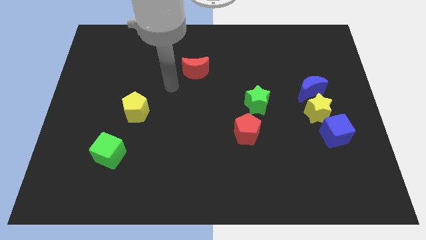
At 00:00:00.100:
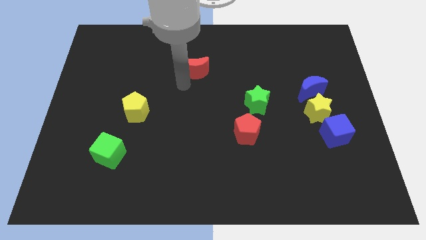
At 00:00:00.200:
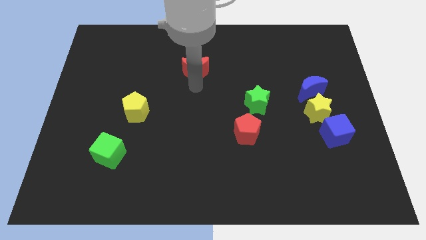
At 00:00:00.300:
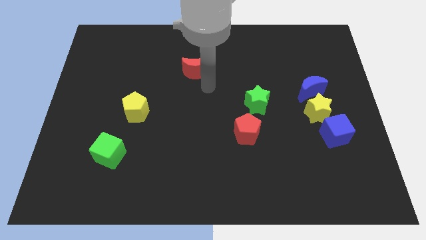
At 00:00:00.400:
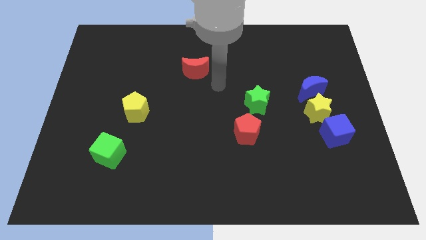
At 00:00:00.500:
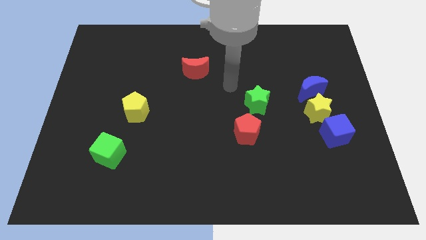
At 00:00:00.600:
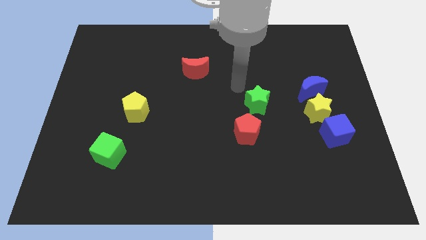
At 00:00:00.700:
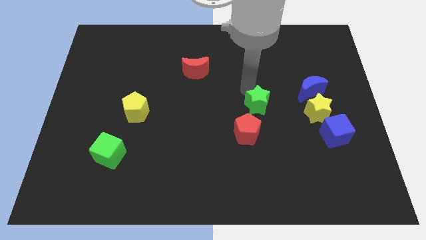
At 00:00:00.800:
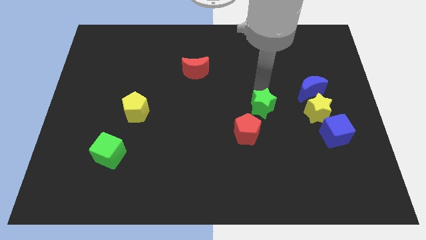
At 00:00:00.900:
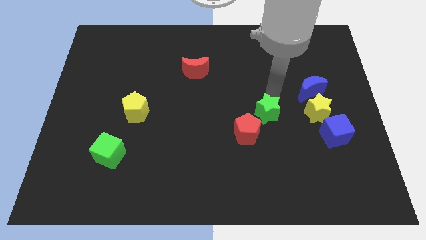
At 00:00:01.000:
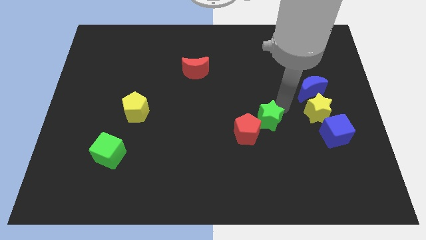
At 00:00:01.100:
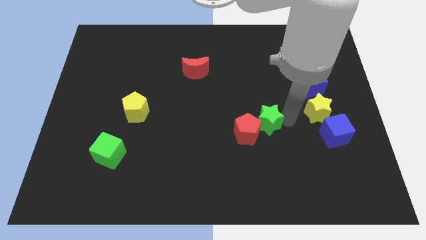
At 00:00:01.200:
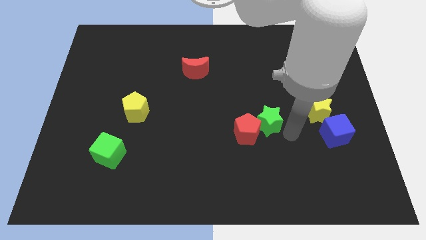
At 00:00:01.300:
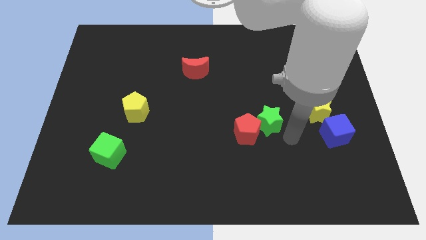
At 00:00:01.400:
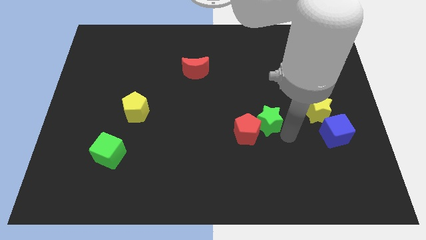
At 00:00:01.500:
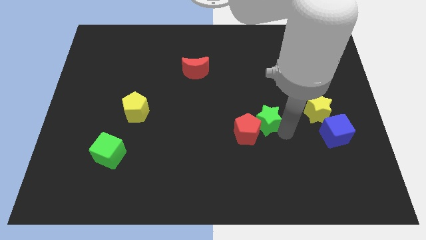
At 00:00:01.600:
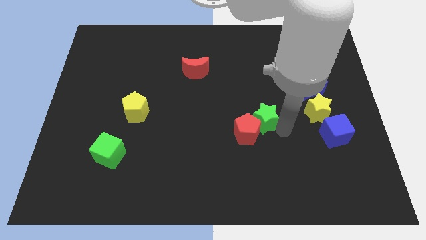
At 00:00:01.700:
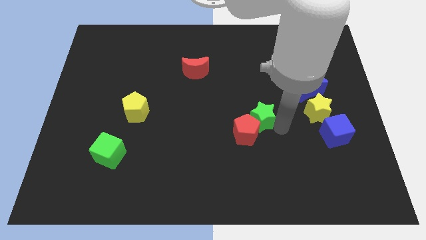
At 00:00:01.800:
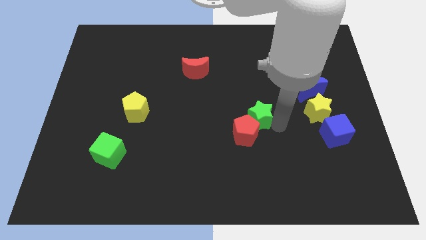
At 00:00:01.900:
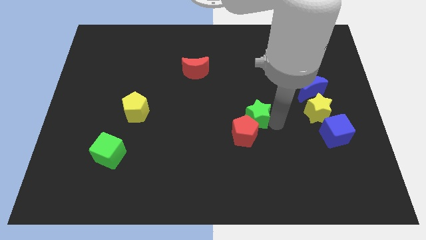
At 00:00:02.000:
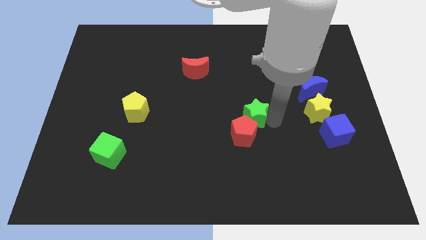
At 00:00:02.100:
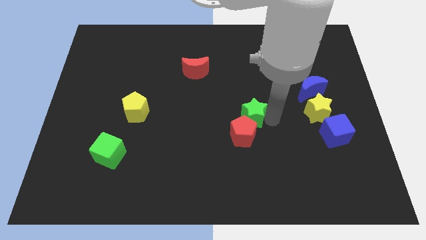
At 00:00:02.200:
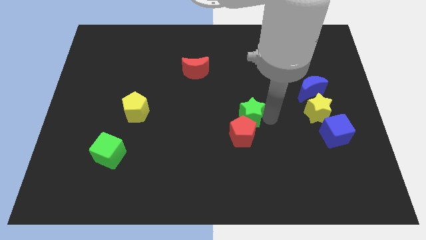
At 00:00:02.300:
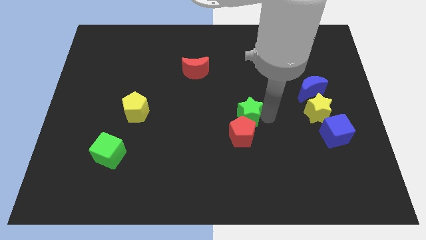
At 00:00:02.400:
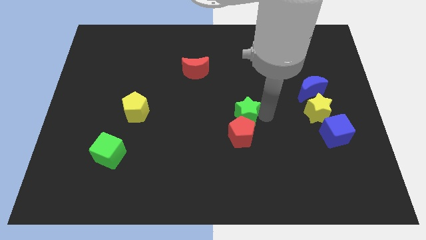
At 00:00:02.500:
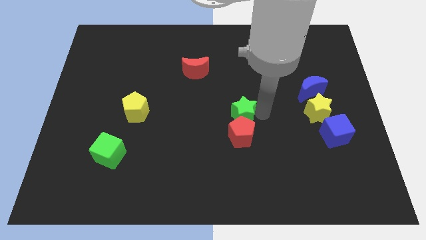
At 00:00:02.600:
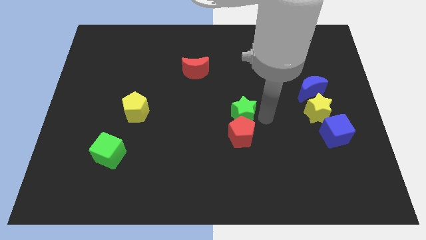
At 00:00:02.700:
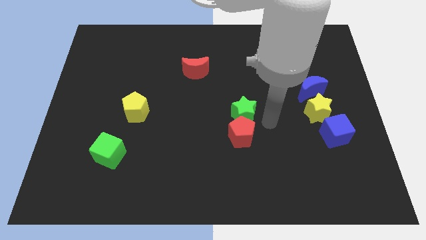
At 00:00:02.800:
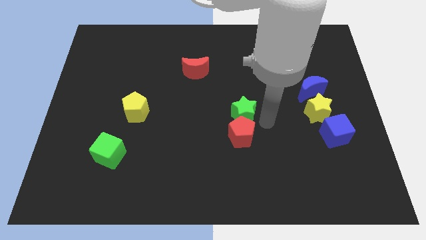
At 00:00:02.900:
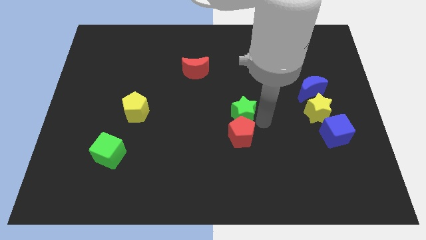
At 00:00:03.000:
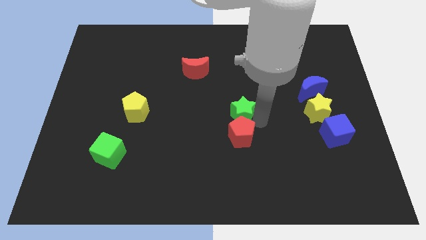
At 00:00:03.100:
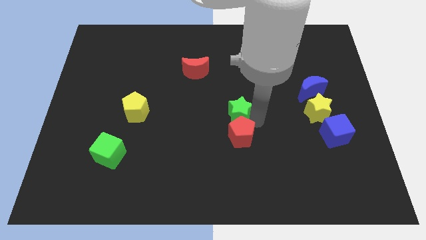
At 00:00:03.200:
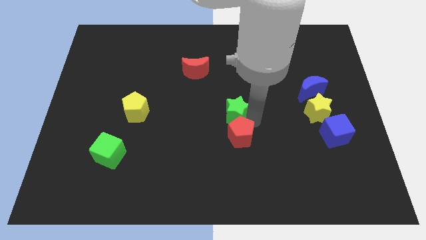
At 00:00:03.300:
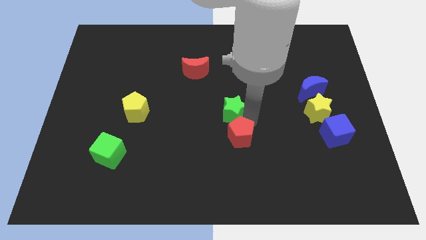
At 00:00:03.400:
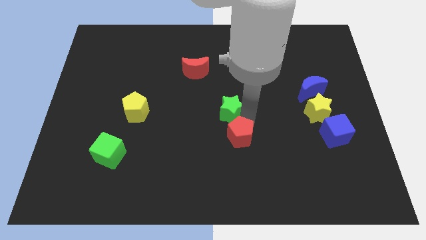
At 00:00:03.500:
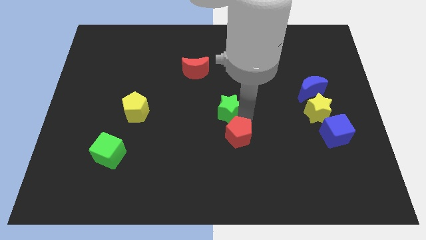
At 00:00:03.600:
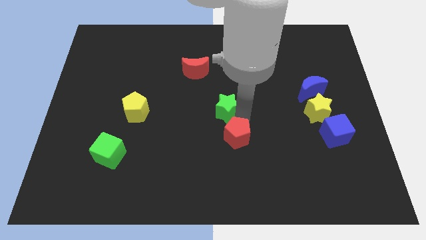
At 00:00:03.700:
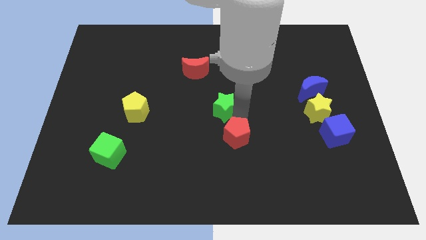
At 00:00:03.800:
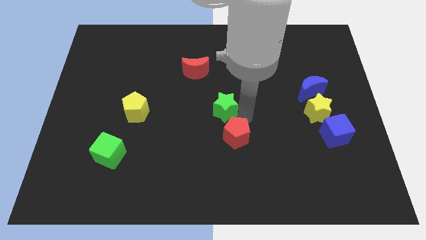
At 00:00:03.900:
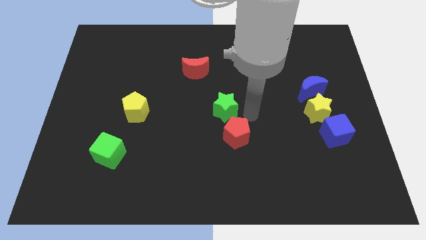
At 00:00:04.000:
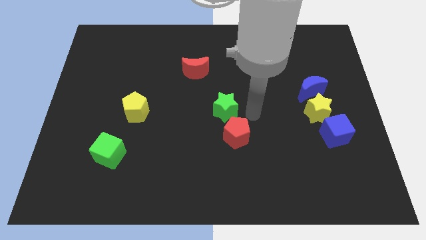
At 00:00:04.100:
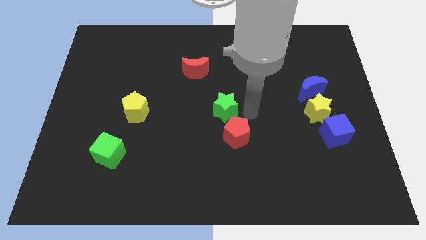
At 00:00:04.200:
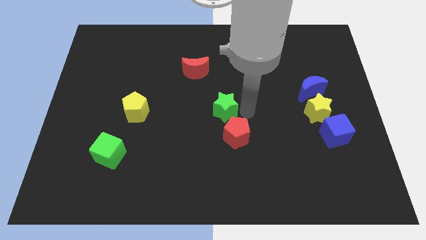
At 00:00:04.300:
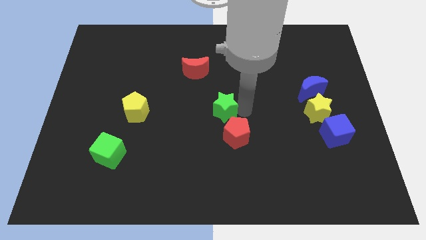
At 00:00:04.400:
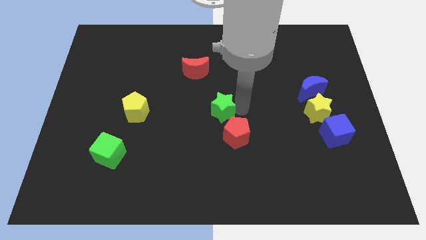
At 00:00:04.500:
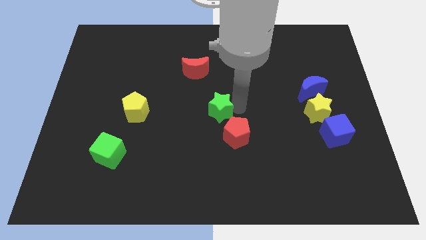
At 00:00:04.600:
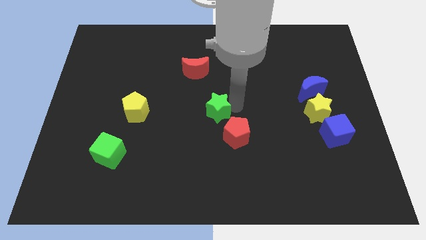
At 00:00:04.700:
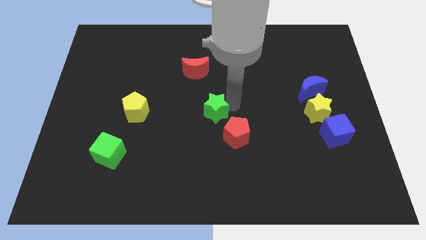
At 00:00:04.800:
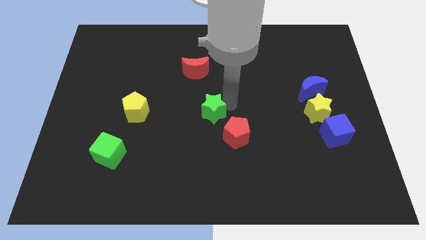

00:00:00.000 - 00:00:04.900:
slide the green star to the bottom of the red moon

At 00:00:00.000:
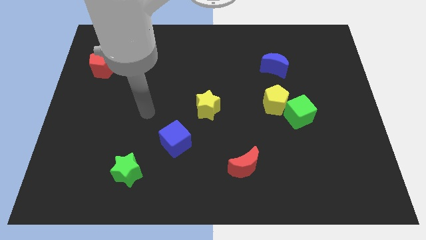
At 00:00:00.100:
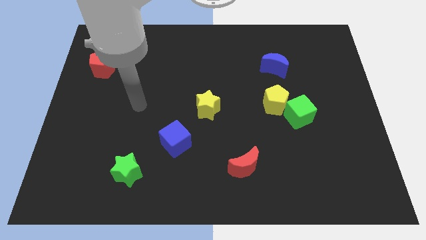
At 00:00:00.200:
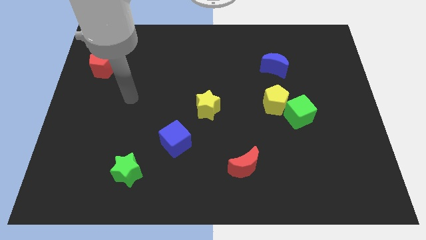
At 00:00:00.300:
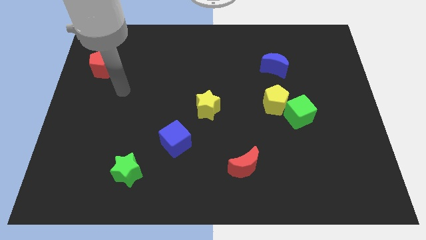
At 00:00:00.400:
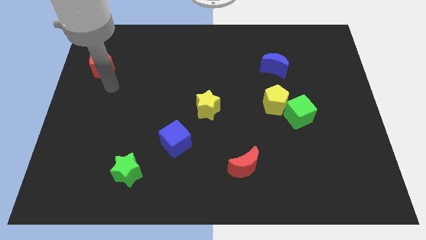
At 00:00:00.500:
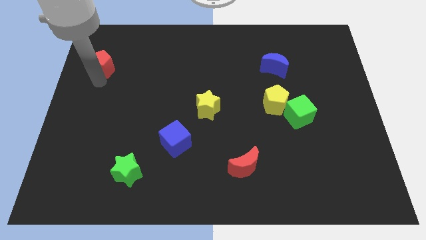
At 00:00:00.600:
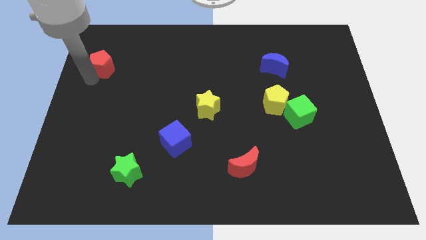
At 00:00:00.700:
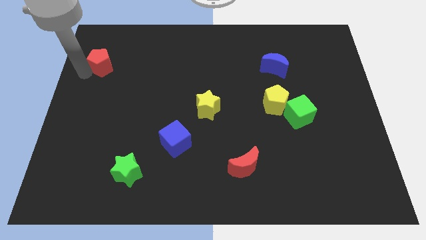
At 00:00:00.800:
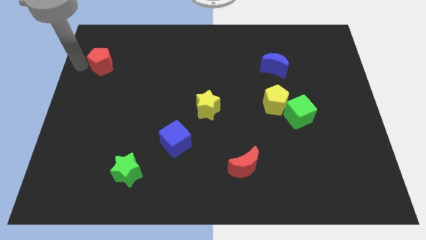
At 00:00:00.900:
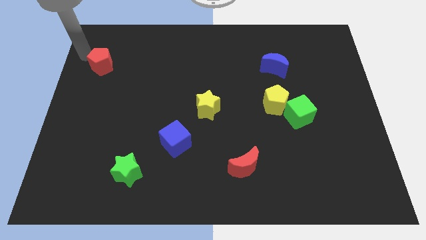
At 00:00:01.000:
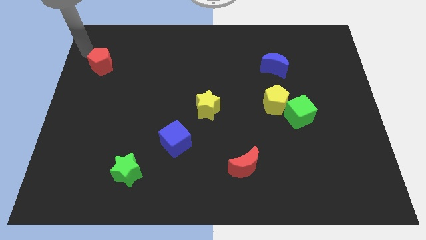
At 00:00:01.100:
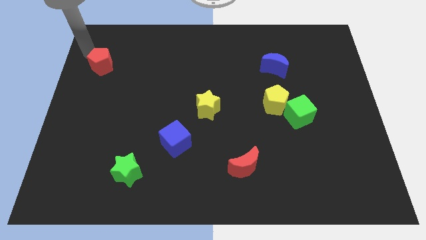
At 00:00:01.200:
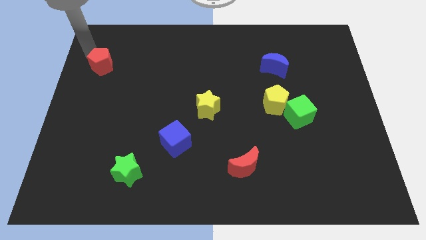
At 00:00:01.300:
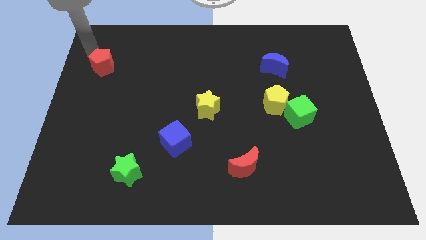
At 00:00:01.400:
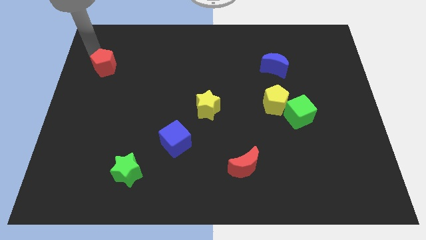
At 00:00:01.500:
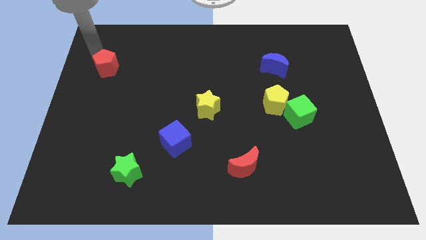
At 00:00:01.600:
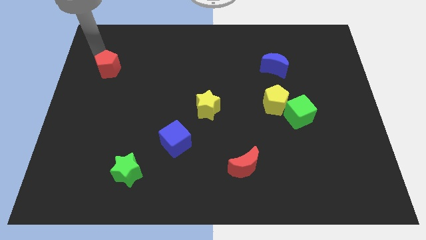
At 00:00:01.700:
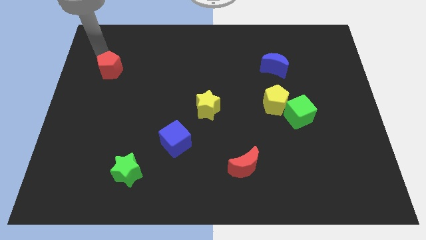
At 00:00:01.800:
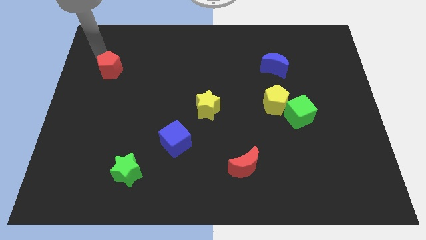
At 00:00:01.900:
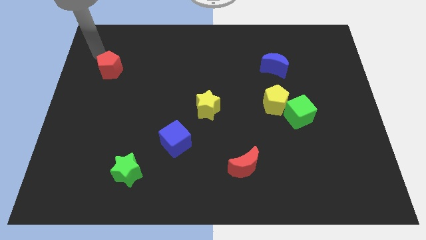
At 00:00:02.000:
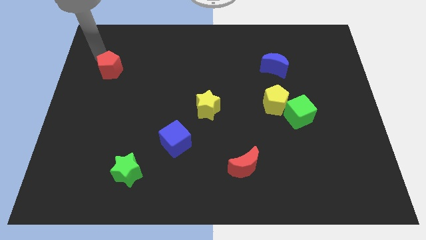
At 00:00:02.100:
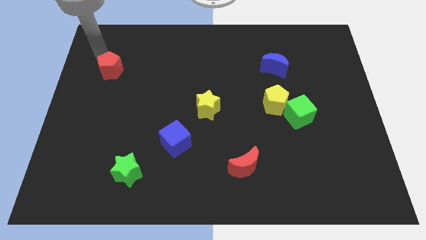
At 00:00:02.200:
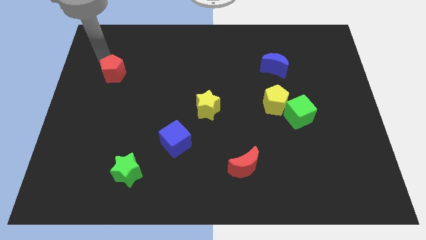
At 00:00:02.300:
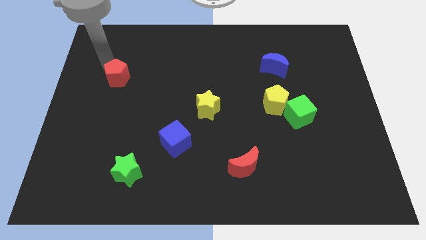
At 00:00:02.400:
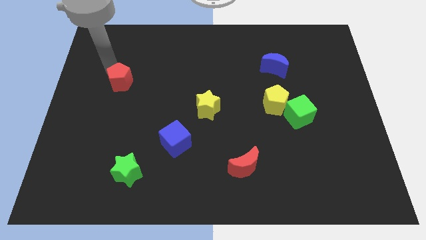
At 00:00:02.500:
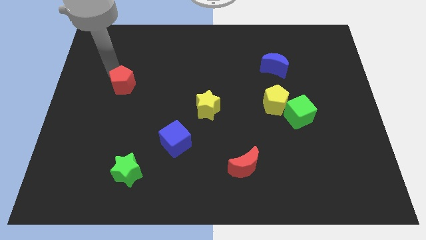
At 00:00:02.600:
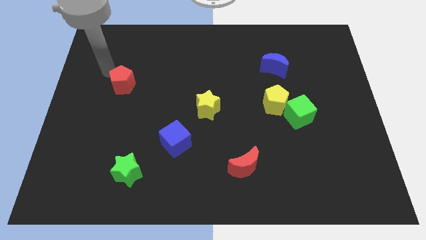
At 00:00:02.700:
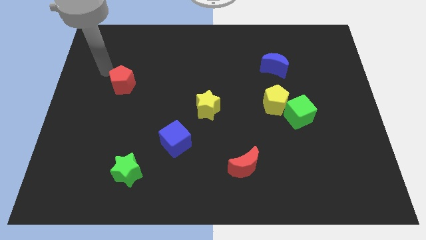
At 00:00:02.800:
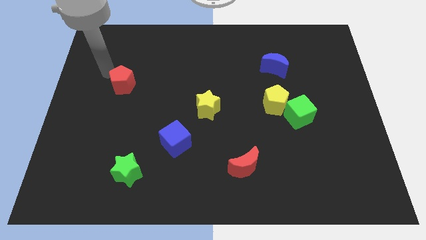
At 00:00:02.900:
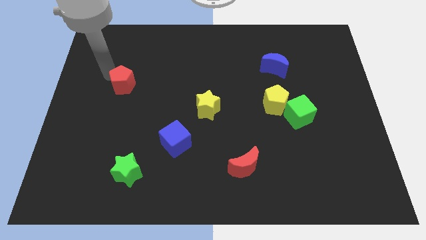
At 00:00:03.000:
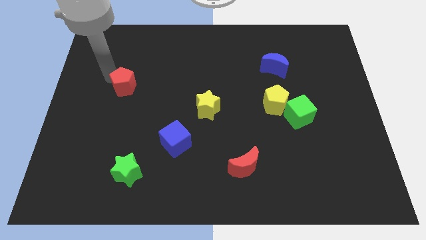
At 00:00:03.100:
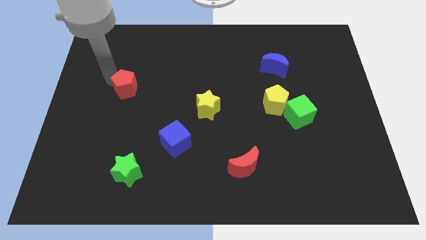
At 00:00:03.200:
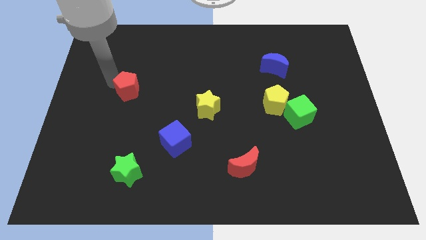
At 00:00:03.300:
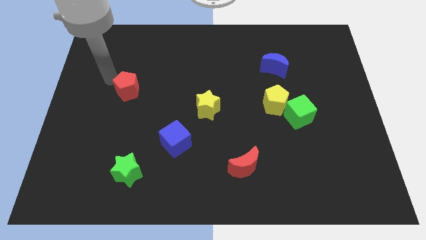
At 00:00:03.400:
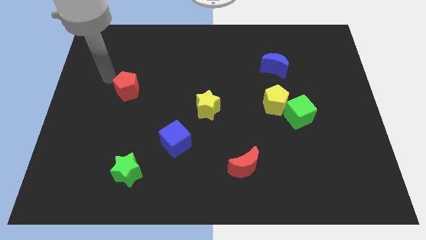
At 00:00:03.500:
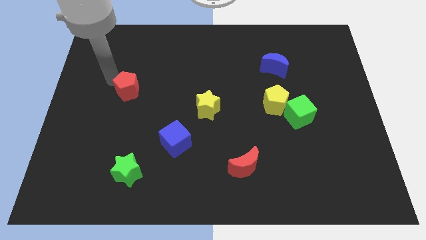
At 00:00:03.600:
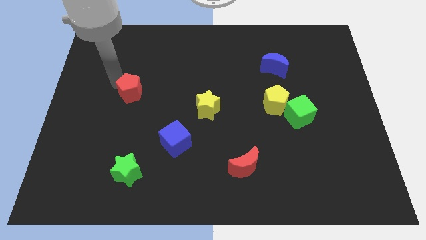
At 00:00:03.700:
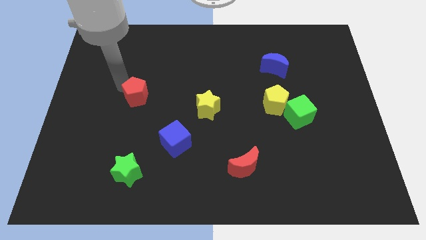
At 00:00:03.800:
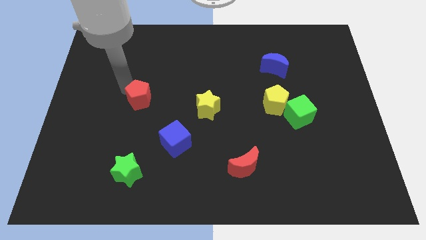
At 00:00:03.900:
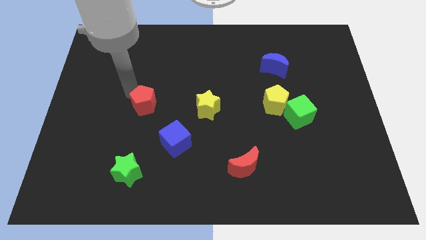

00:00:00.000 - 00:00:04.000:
slide the red pentagon to the left side of the yellow star
